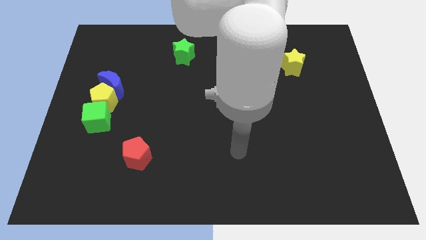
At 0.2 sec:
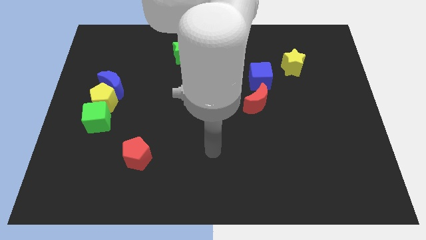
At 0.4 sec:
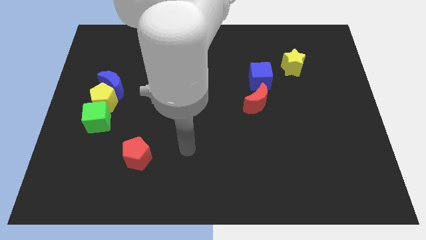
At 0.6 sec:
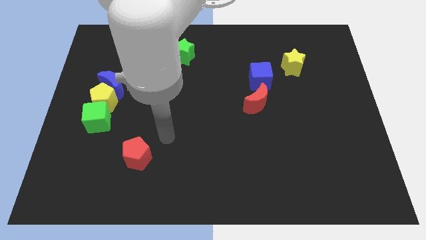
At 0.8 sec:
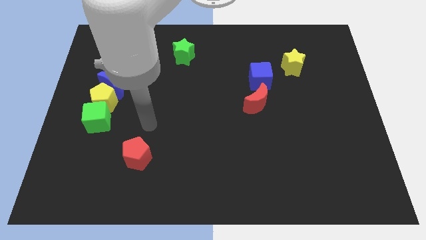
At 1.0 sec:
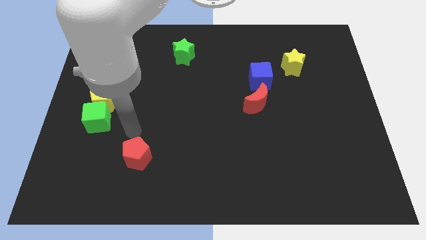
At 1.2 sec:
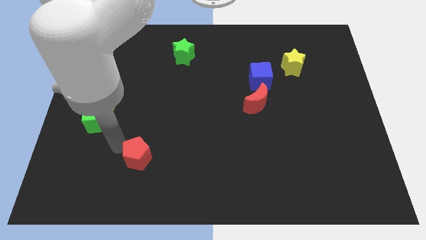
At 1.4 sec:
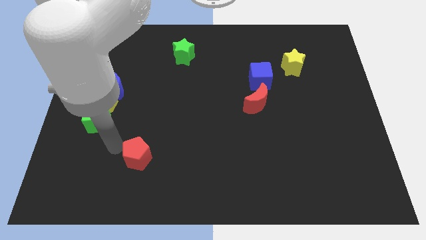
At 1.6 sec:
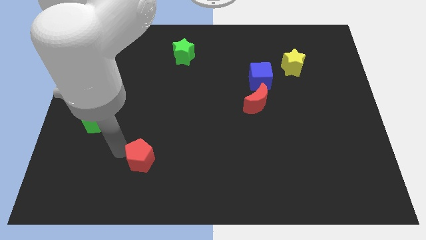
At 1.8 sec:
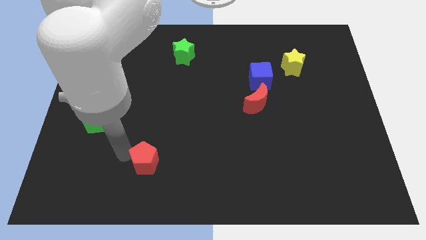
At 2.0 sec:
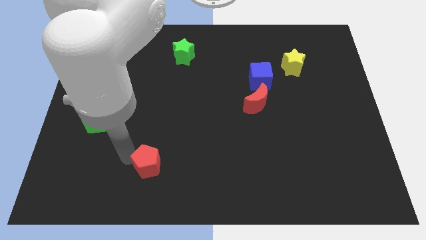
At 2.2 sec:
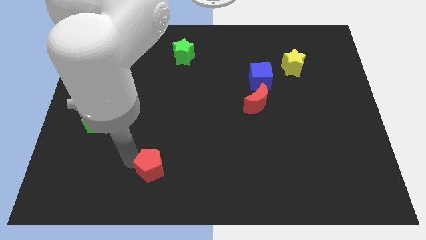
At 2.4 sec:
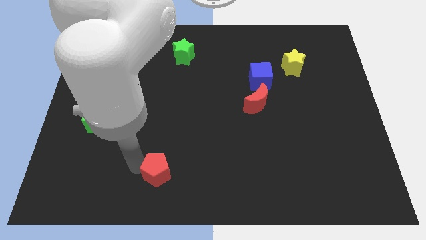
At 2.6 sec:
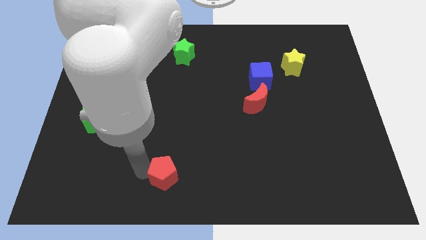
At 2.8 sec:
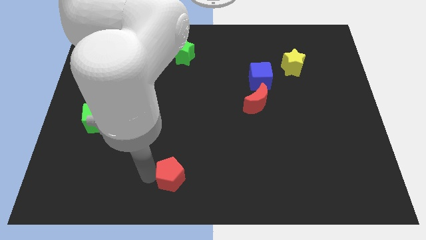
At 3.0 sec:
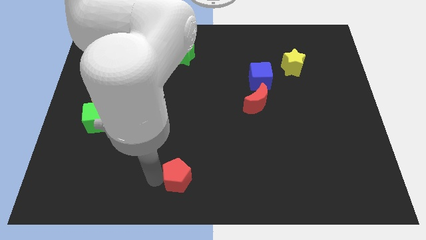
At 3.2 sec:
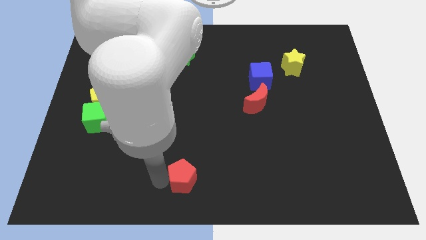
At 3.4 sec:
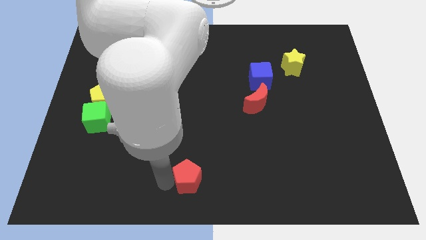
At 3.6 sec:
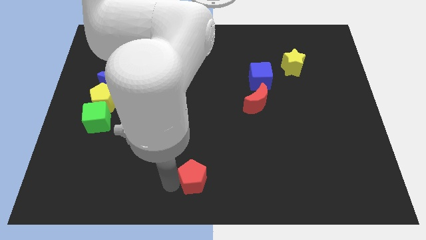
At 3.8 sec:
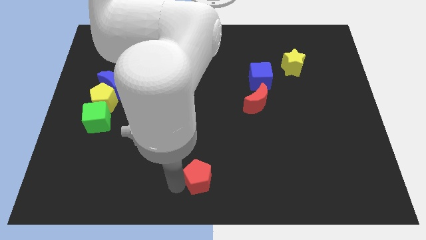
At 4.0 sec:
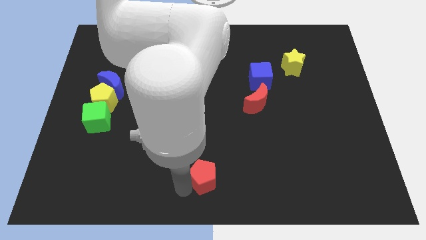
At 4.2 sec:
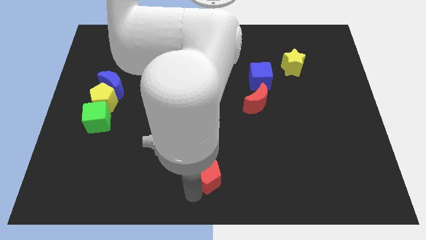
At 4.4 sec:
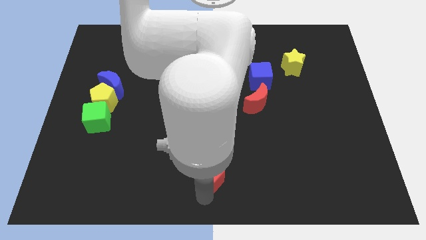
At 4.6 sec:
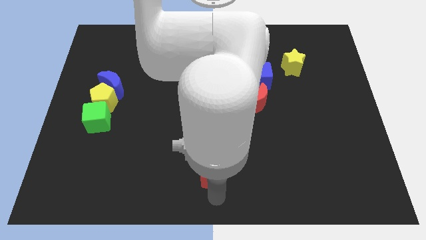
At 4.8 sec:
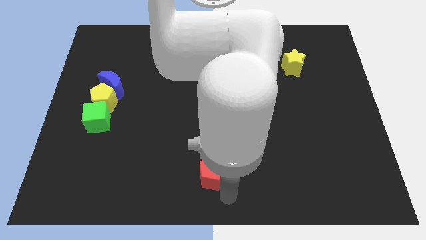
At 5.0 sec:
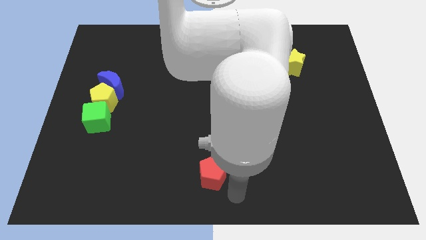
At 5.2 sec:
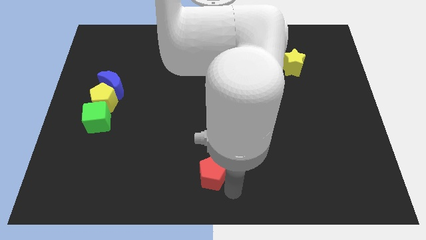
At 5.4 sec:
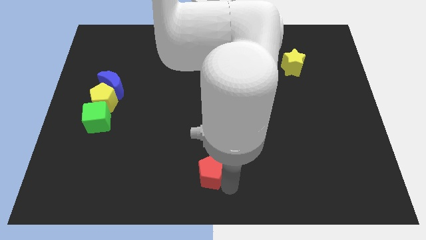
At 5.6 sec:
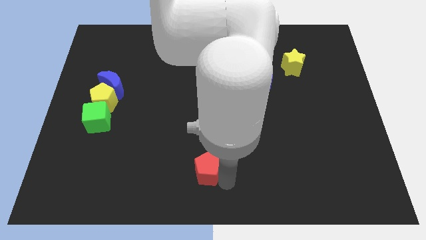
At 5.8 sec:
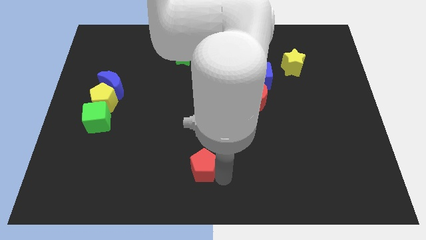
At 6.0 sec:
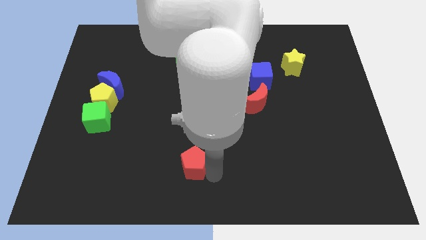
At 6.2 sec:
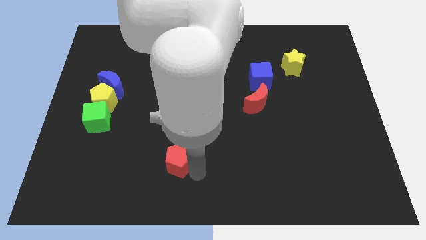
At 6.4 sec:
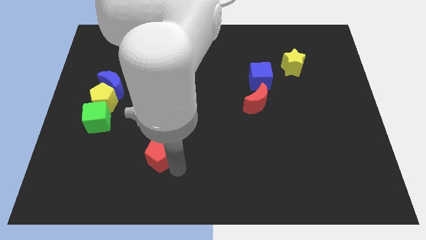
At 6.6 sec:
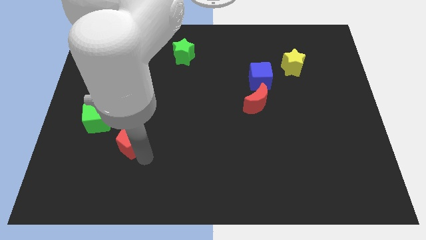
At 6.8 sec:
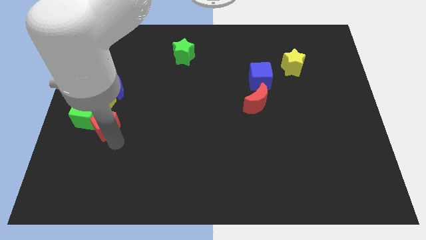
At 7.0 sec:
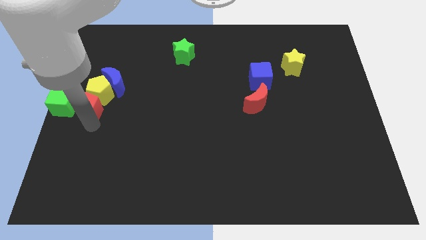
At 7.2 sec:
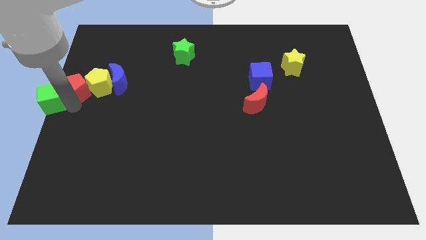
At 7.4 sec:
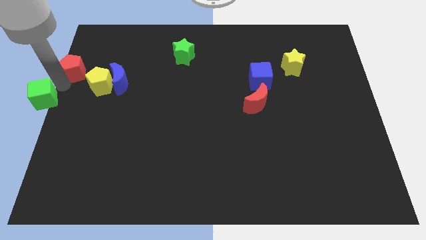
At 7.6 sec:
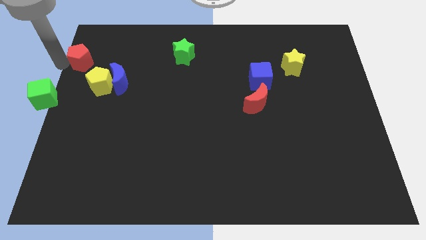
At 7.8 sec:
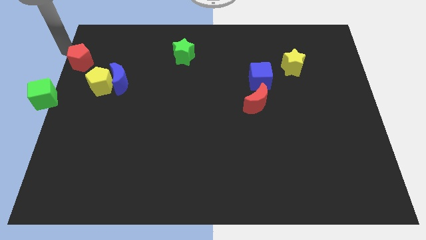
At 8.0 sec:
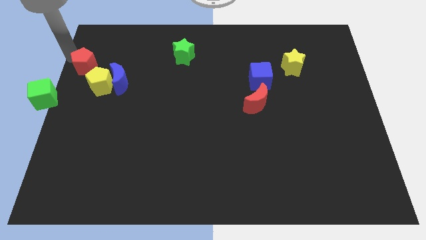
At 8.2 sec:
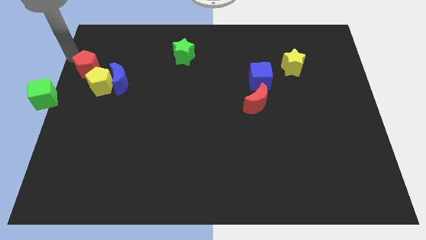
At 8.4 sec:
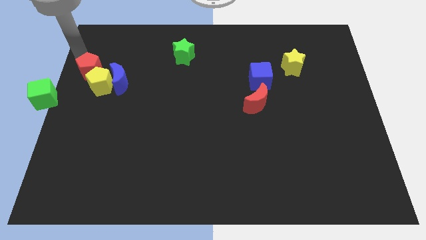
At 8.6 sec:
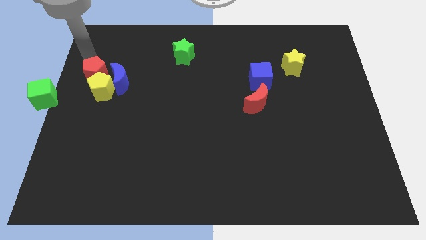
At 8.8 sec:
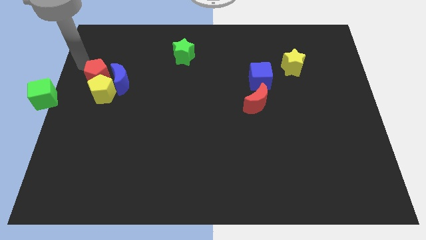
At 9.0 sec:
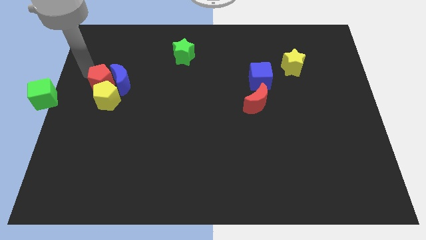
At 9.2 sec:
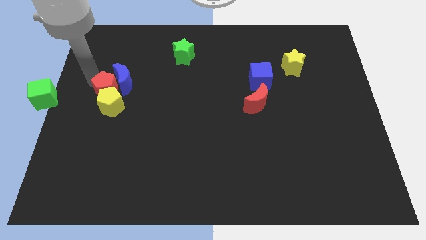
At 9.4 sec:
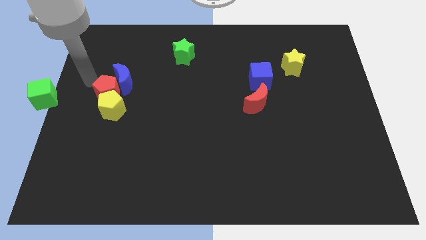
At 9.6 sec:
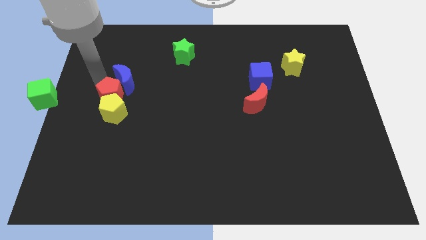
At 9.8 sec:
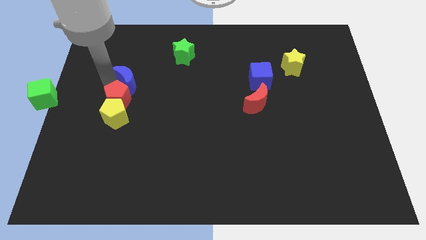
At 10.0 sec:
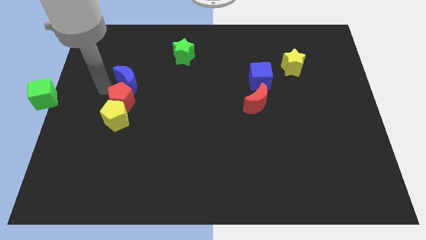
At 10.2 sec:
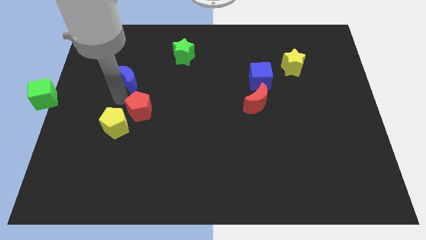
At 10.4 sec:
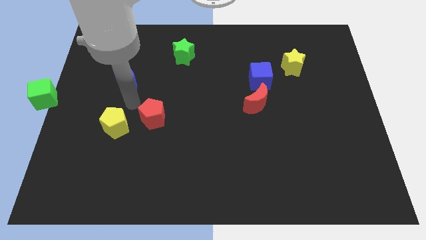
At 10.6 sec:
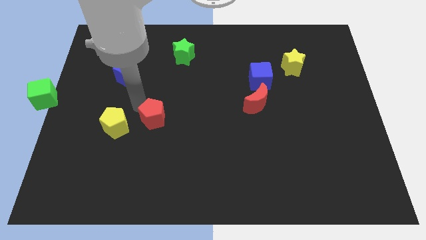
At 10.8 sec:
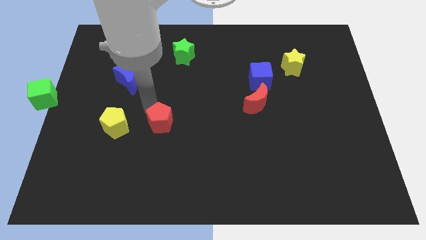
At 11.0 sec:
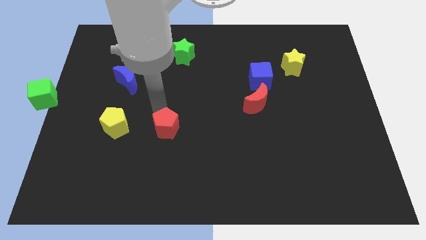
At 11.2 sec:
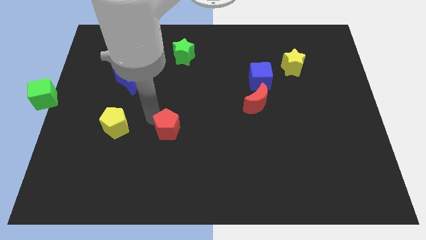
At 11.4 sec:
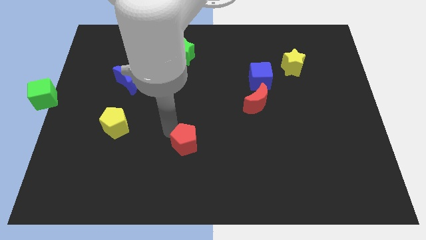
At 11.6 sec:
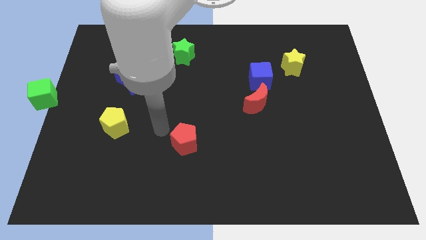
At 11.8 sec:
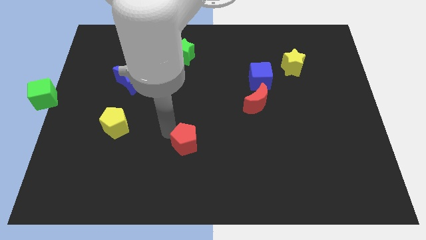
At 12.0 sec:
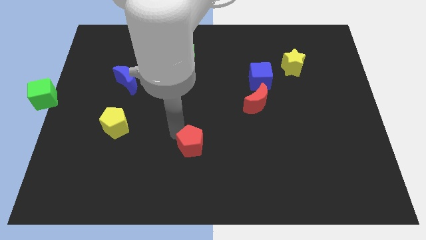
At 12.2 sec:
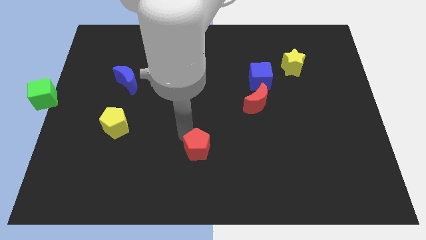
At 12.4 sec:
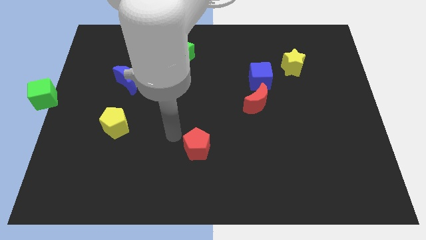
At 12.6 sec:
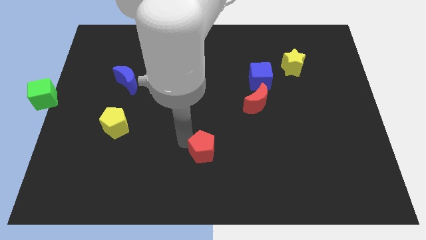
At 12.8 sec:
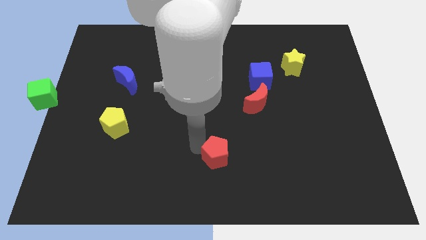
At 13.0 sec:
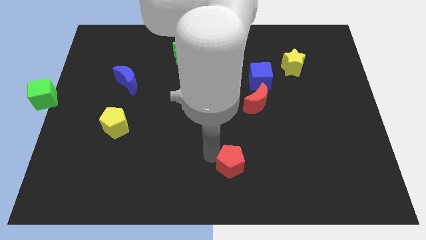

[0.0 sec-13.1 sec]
push the red pentagon right

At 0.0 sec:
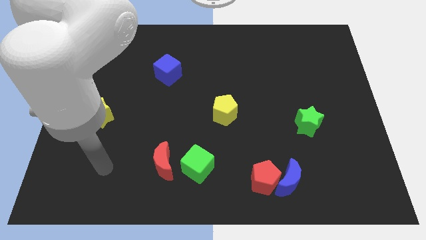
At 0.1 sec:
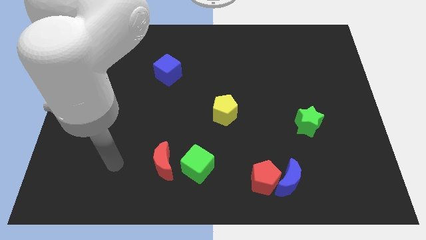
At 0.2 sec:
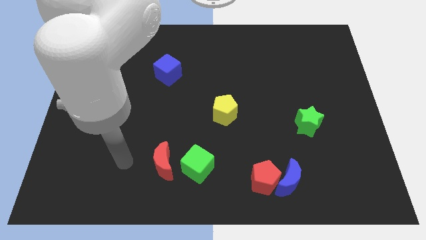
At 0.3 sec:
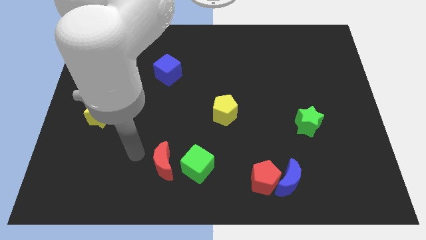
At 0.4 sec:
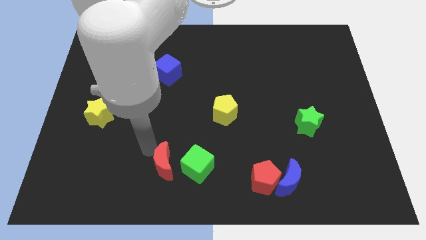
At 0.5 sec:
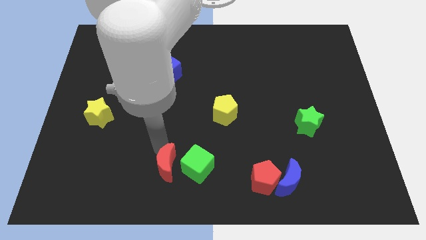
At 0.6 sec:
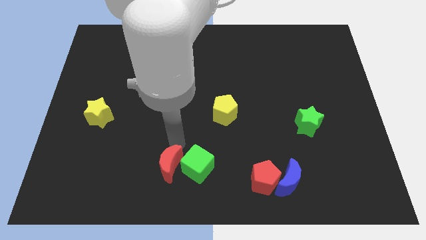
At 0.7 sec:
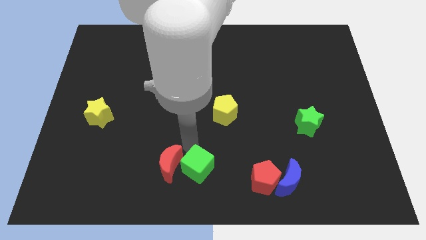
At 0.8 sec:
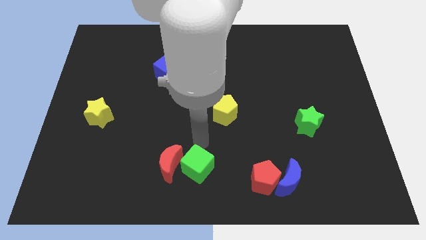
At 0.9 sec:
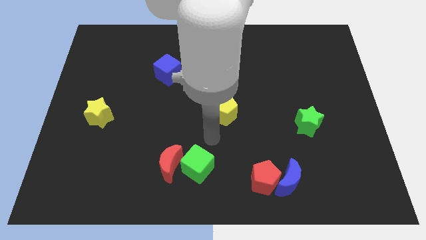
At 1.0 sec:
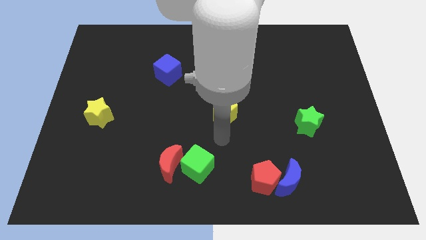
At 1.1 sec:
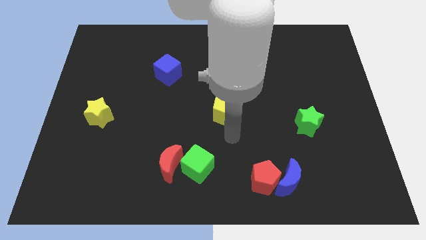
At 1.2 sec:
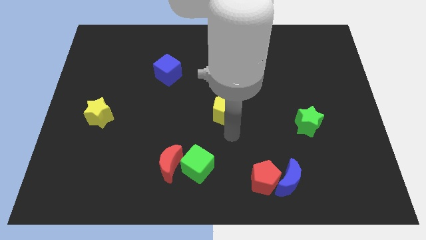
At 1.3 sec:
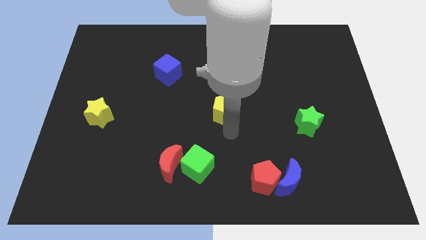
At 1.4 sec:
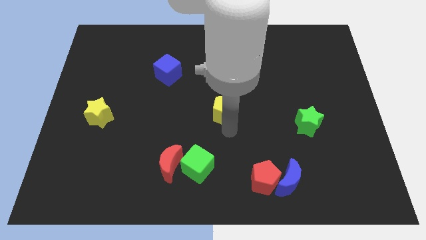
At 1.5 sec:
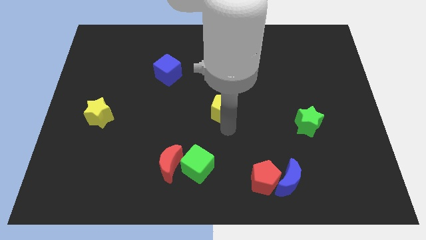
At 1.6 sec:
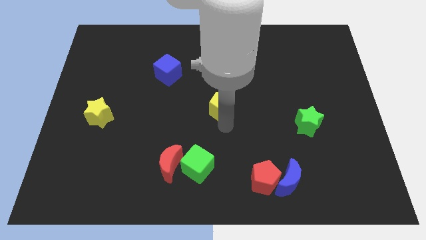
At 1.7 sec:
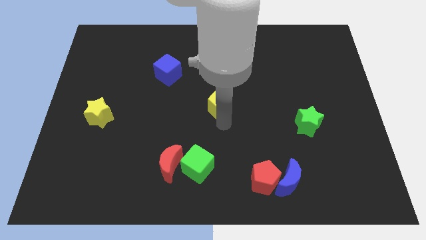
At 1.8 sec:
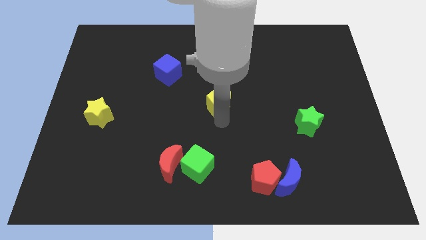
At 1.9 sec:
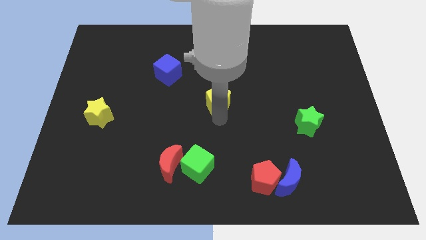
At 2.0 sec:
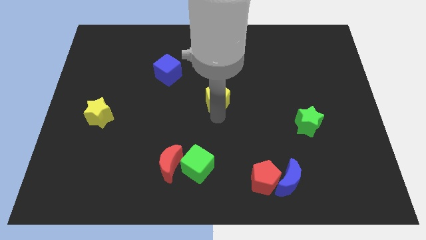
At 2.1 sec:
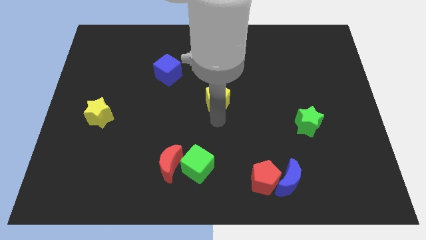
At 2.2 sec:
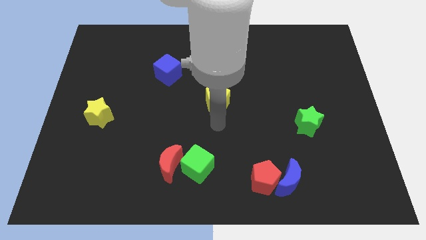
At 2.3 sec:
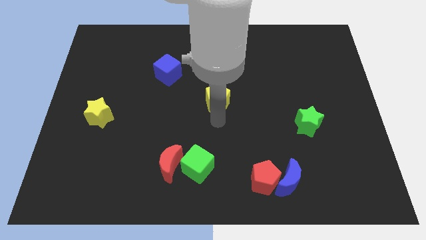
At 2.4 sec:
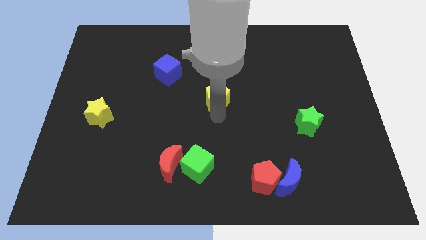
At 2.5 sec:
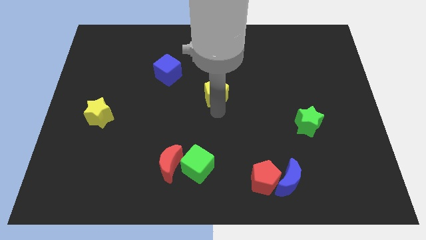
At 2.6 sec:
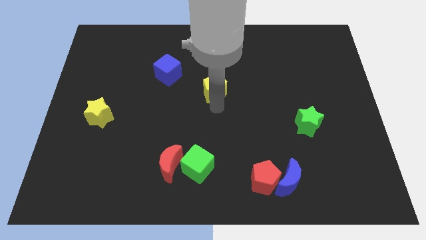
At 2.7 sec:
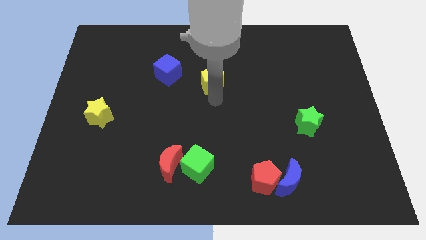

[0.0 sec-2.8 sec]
push the yellow pentagon upwards slightly
